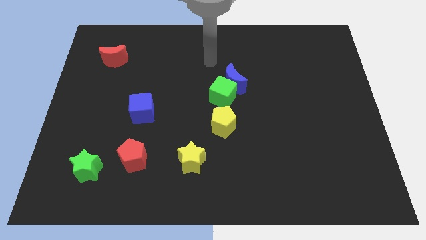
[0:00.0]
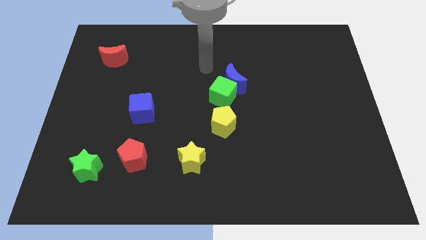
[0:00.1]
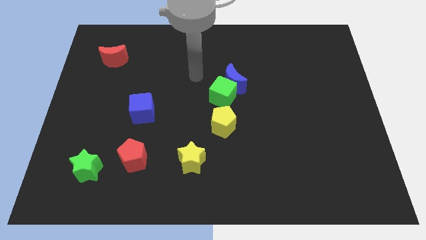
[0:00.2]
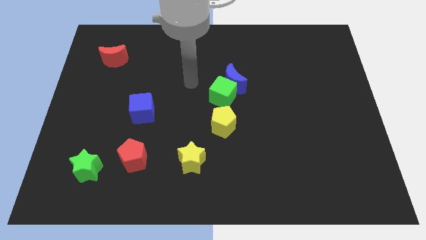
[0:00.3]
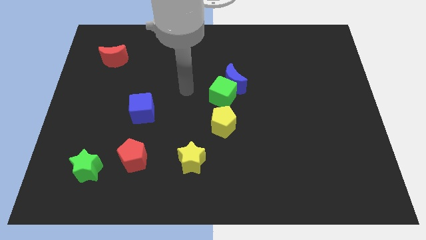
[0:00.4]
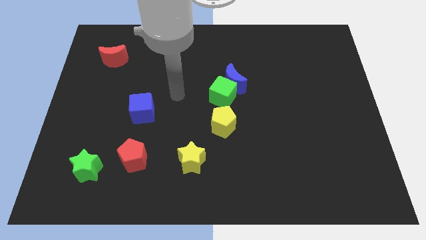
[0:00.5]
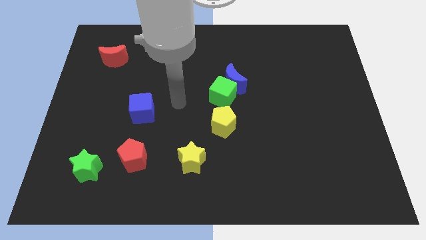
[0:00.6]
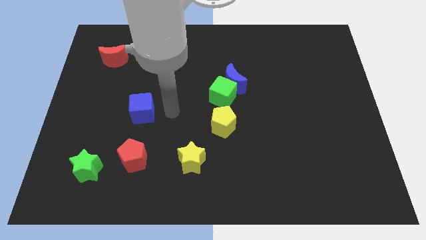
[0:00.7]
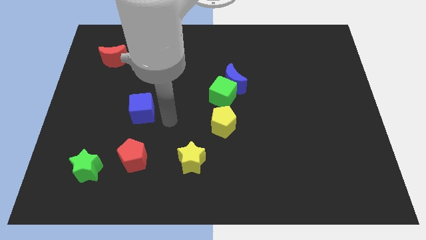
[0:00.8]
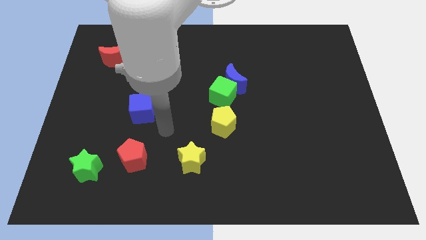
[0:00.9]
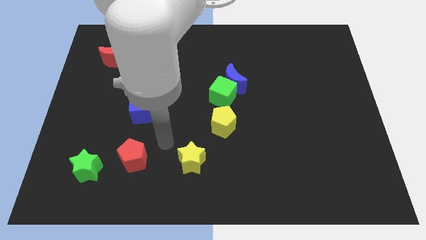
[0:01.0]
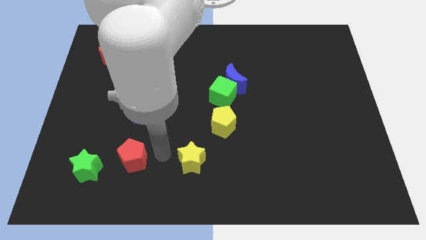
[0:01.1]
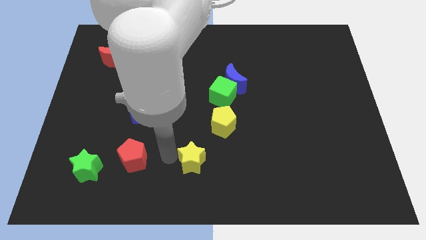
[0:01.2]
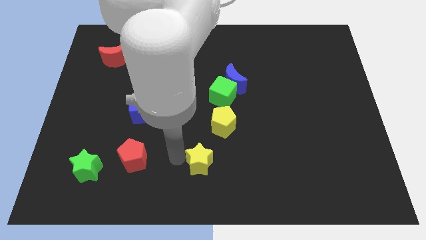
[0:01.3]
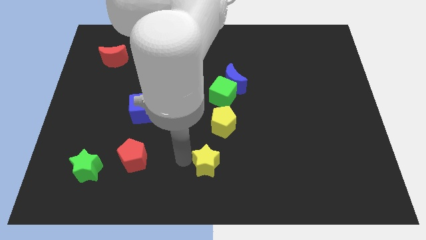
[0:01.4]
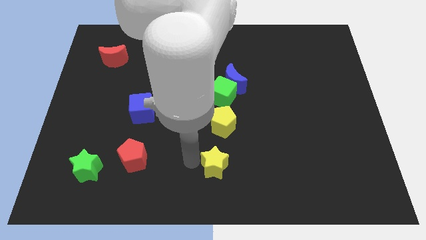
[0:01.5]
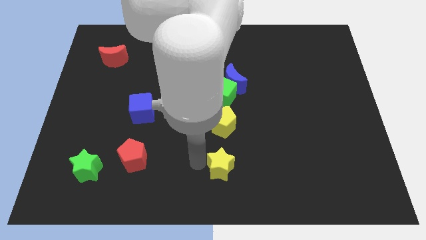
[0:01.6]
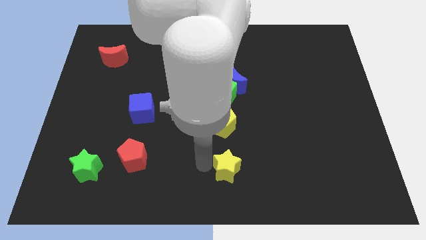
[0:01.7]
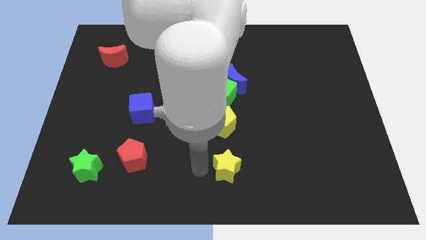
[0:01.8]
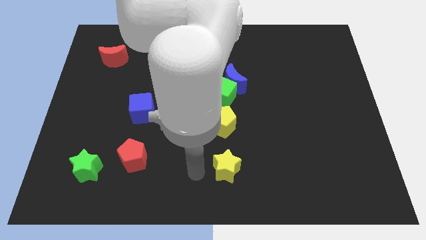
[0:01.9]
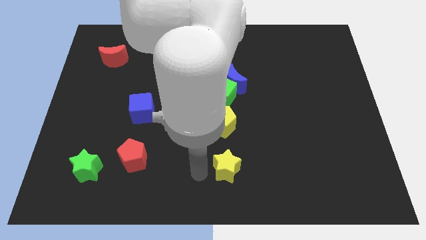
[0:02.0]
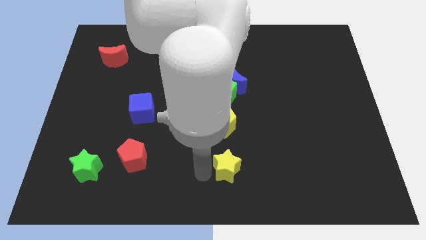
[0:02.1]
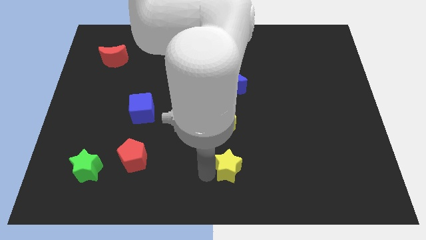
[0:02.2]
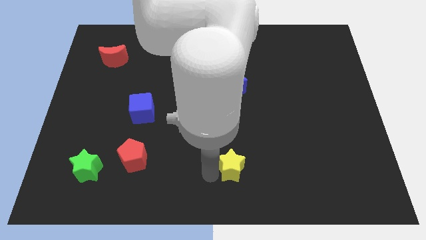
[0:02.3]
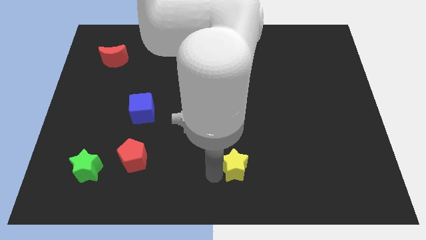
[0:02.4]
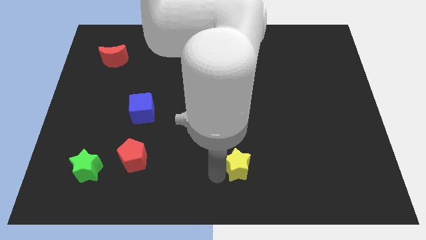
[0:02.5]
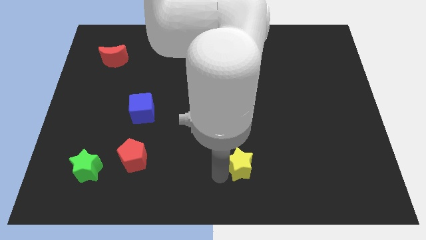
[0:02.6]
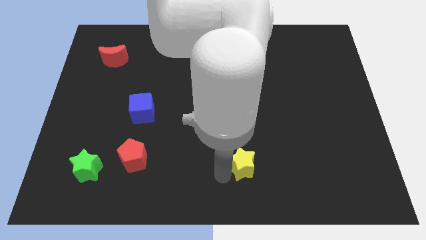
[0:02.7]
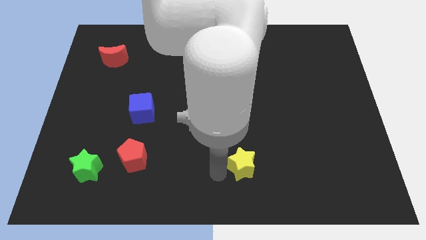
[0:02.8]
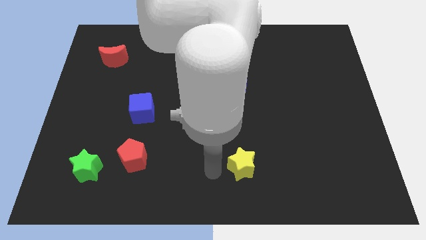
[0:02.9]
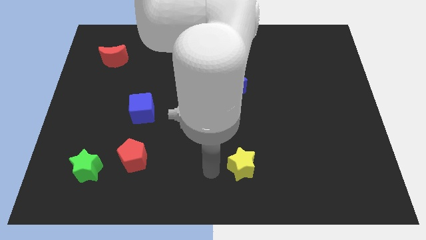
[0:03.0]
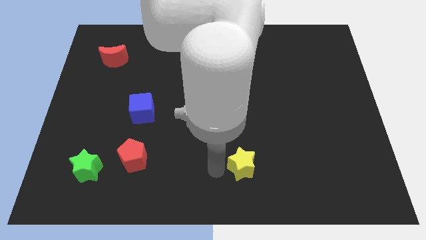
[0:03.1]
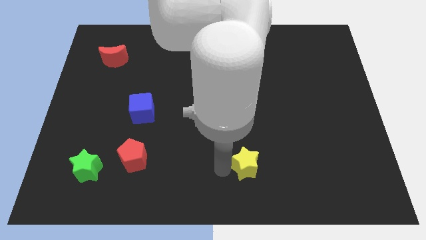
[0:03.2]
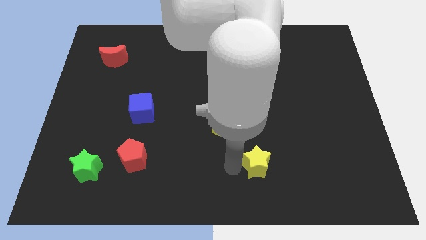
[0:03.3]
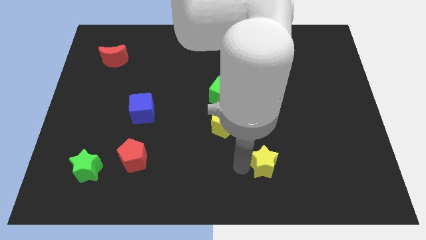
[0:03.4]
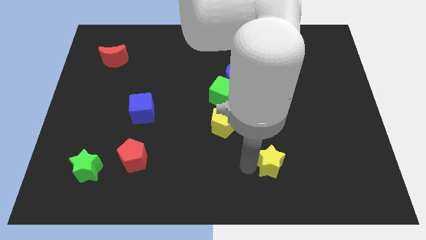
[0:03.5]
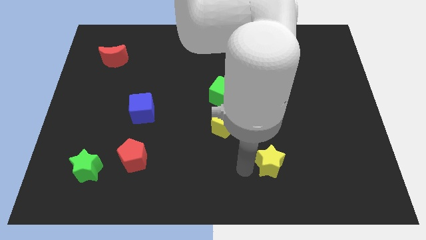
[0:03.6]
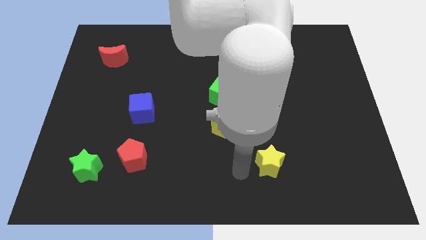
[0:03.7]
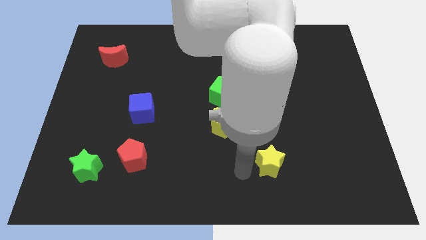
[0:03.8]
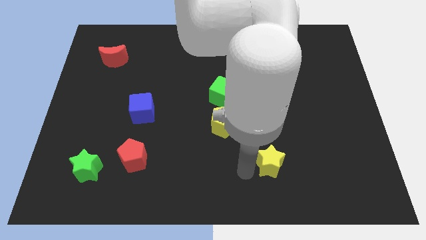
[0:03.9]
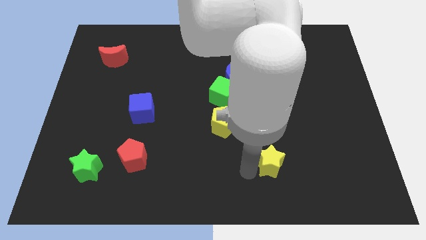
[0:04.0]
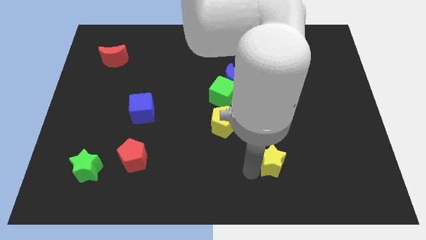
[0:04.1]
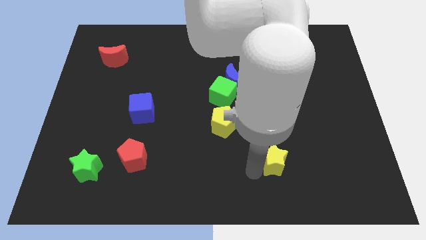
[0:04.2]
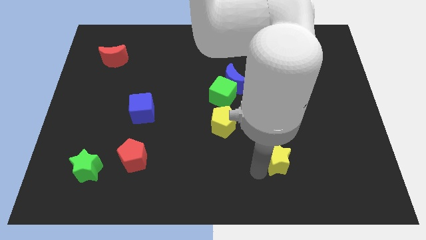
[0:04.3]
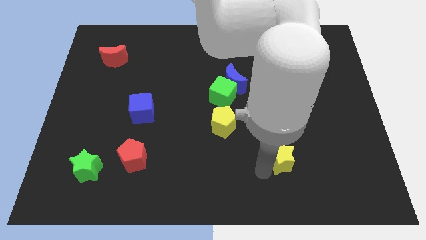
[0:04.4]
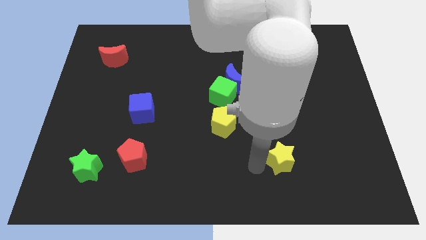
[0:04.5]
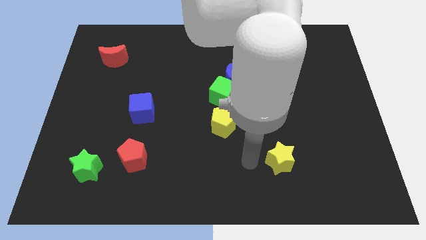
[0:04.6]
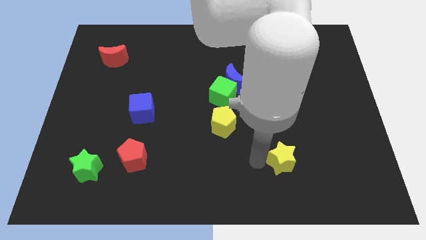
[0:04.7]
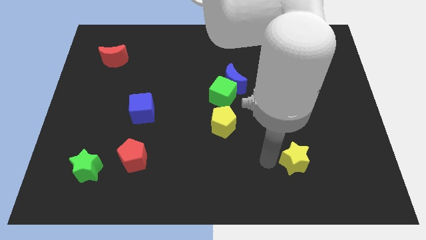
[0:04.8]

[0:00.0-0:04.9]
push the yellow star to the right

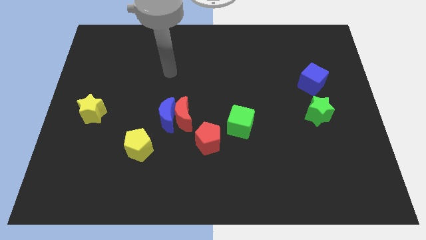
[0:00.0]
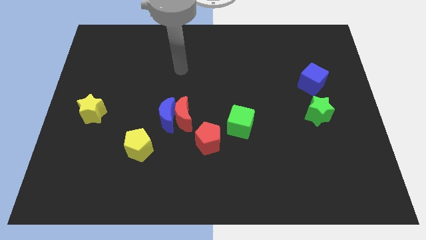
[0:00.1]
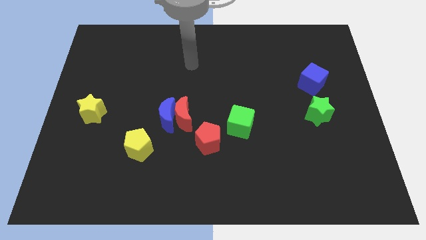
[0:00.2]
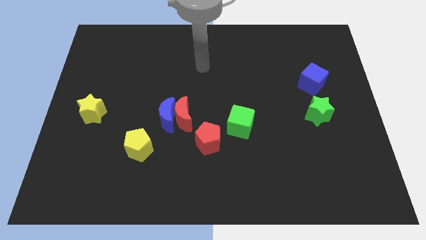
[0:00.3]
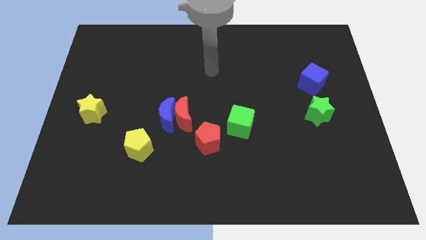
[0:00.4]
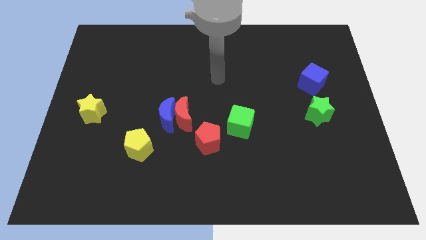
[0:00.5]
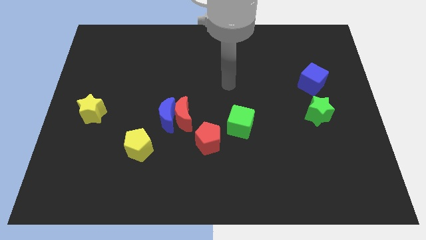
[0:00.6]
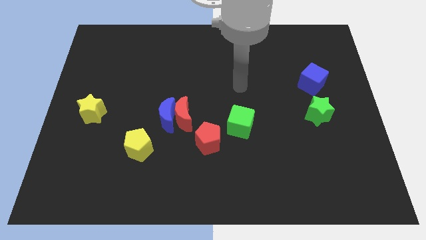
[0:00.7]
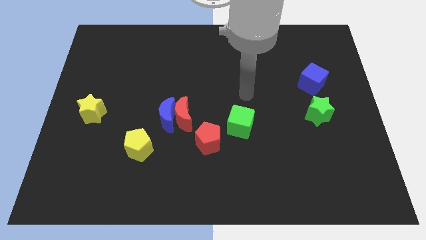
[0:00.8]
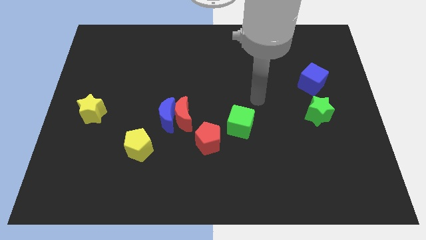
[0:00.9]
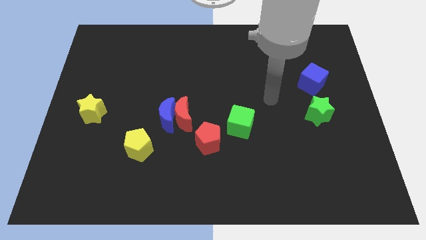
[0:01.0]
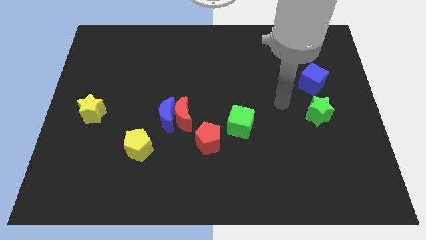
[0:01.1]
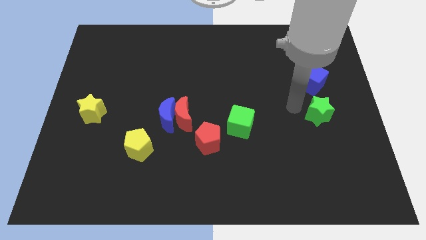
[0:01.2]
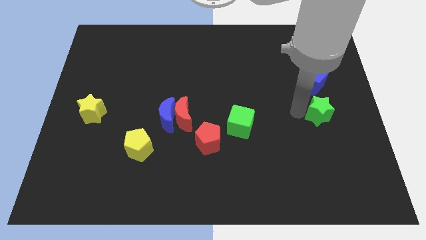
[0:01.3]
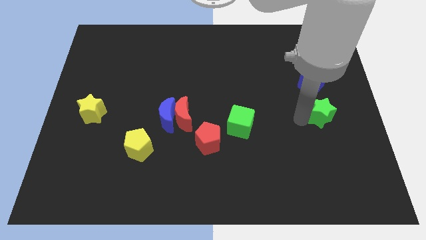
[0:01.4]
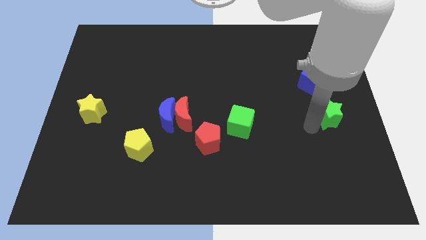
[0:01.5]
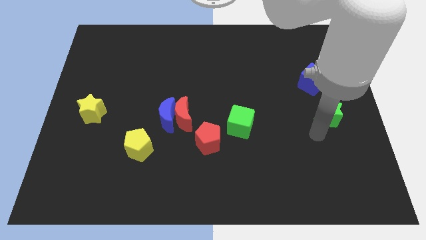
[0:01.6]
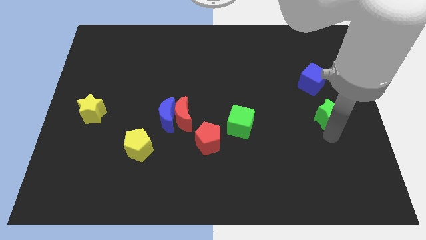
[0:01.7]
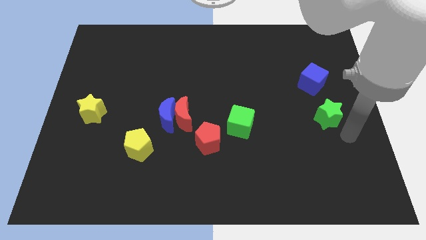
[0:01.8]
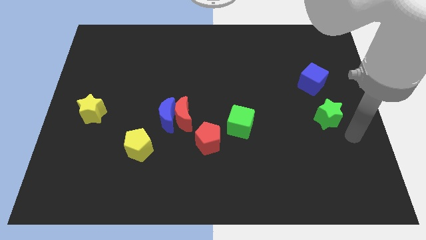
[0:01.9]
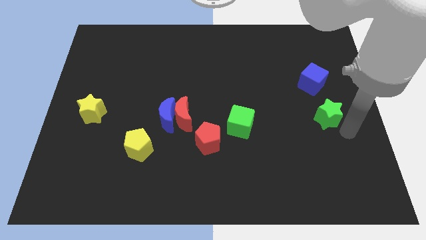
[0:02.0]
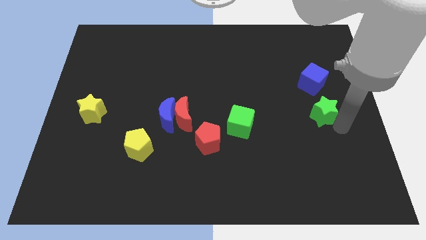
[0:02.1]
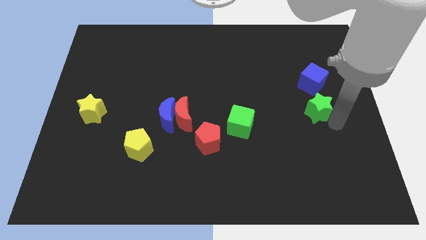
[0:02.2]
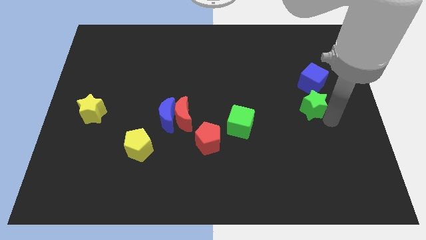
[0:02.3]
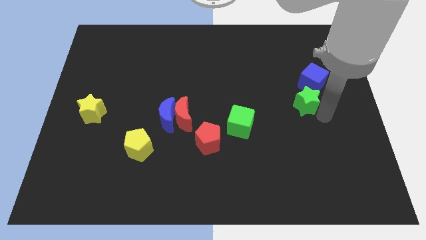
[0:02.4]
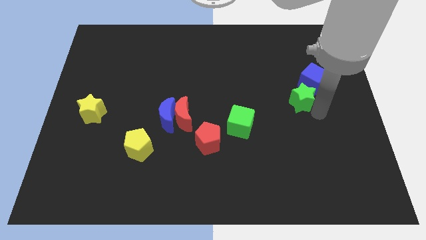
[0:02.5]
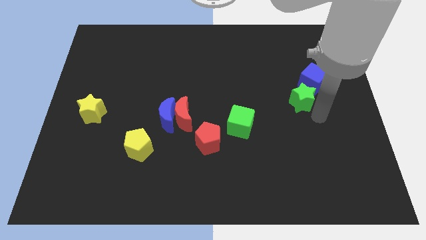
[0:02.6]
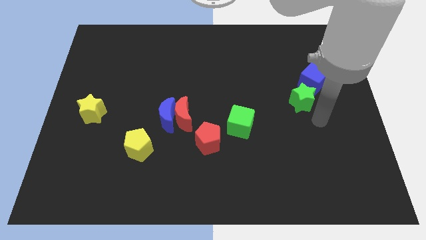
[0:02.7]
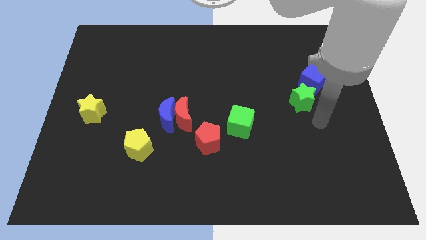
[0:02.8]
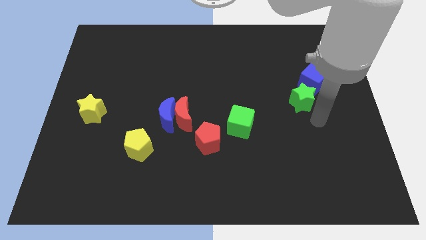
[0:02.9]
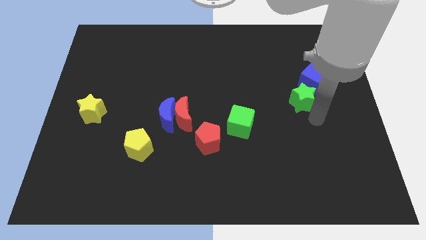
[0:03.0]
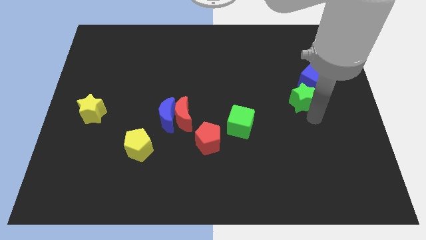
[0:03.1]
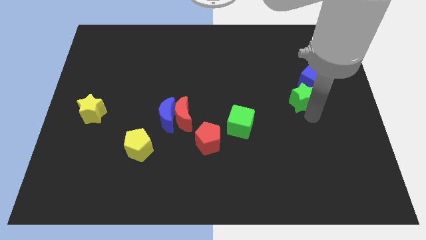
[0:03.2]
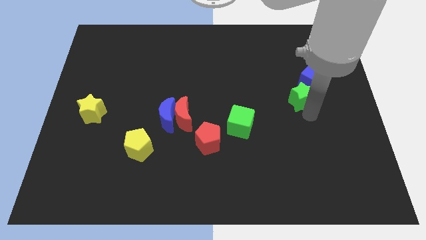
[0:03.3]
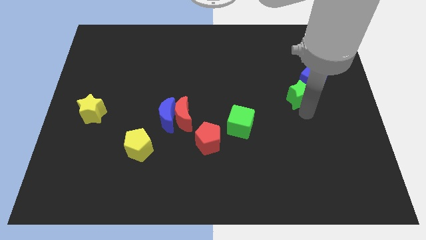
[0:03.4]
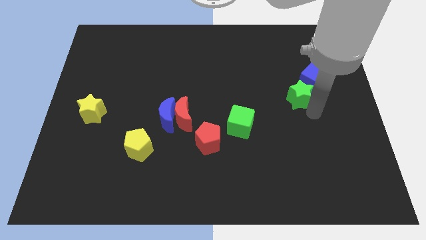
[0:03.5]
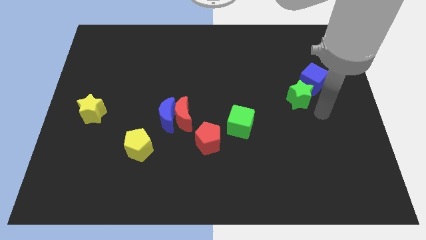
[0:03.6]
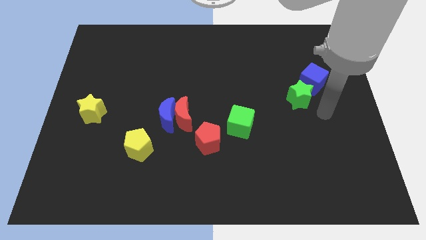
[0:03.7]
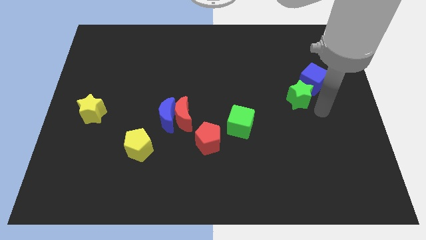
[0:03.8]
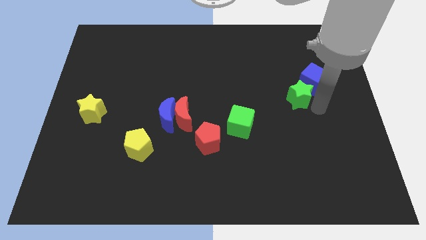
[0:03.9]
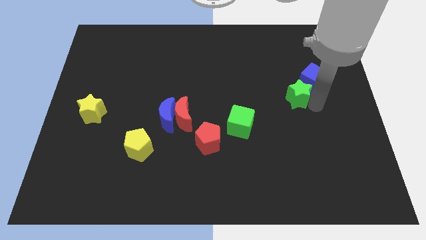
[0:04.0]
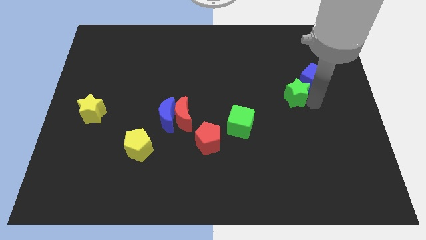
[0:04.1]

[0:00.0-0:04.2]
slightly move the green star upwards and left diagonally
